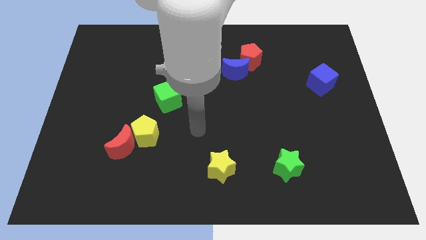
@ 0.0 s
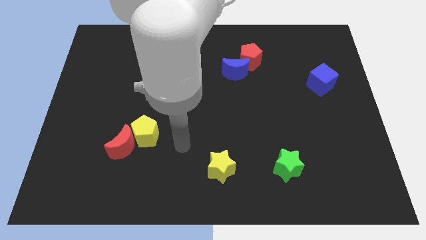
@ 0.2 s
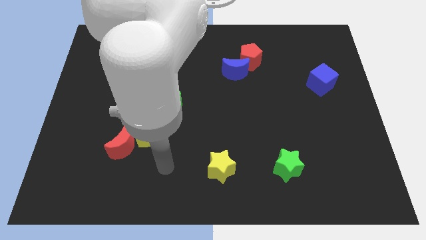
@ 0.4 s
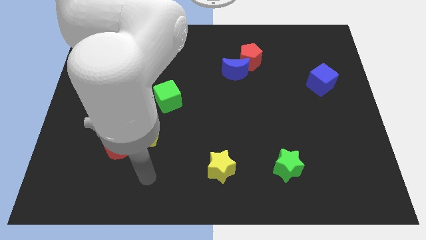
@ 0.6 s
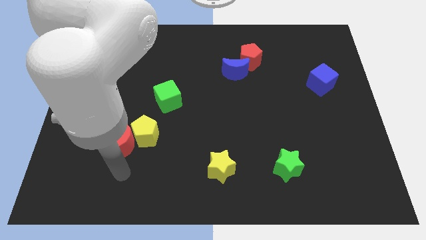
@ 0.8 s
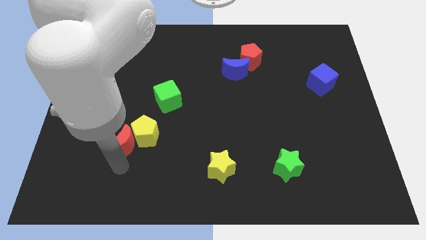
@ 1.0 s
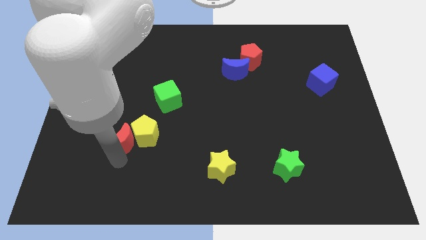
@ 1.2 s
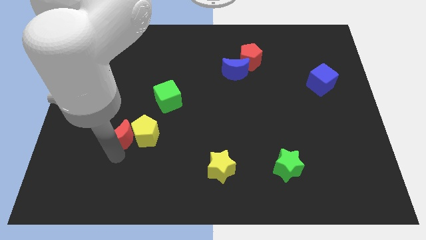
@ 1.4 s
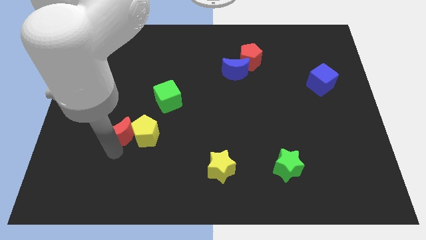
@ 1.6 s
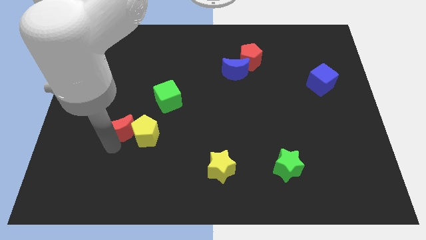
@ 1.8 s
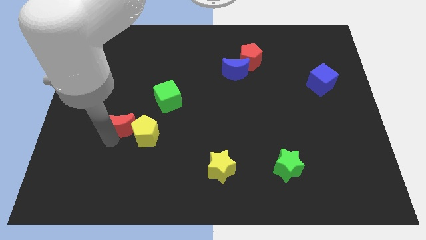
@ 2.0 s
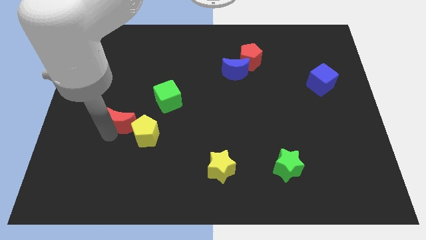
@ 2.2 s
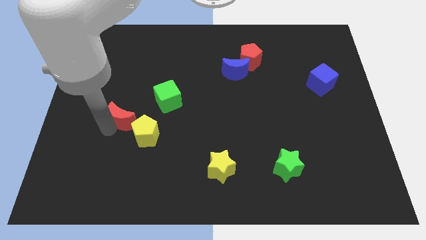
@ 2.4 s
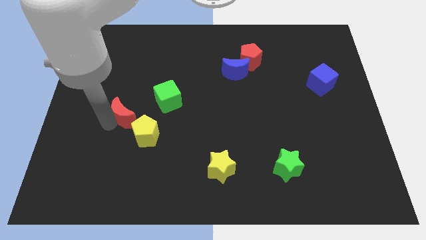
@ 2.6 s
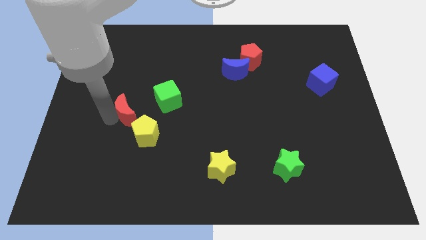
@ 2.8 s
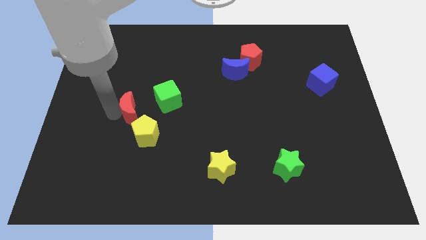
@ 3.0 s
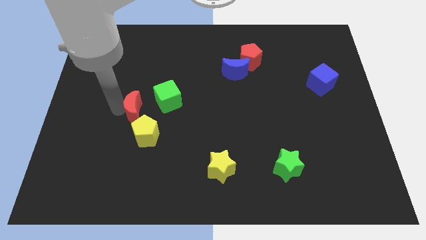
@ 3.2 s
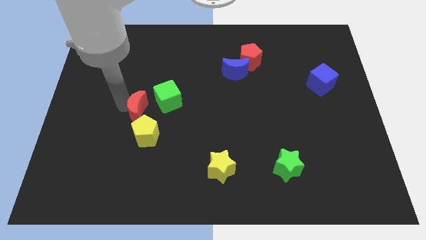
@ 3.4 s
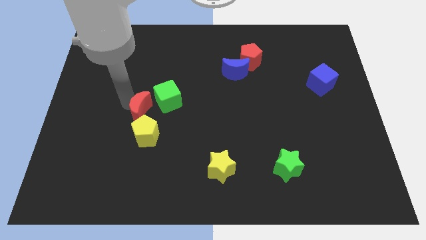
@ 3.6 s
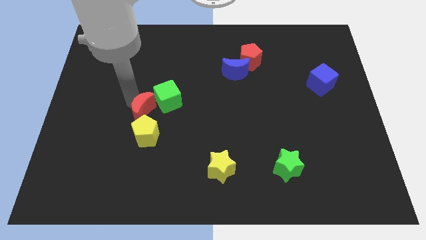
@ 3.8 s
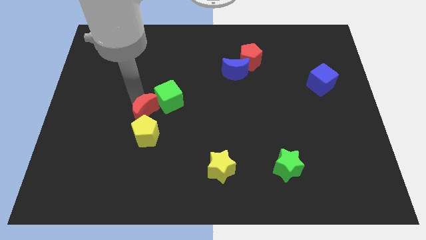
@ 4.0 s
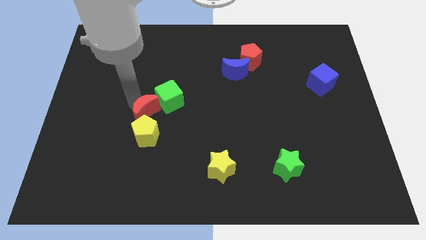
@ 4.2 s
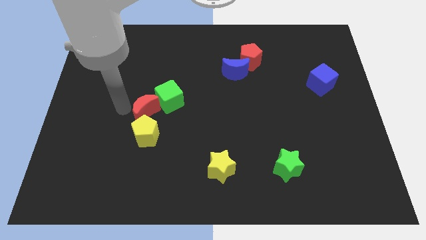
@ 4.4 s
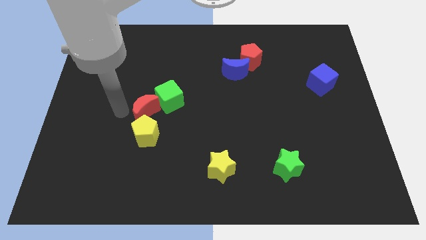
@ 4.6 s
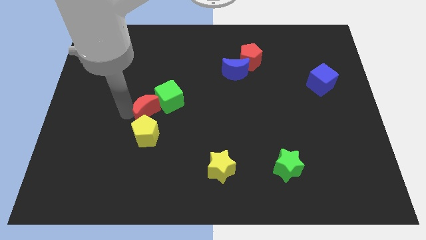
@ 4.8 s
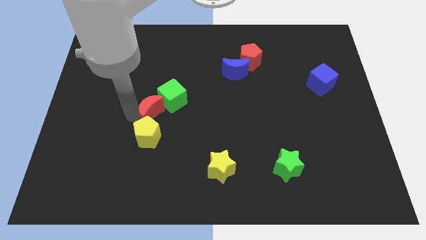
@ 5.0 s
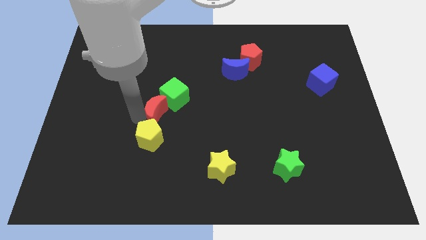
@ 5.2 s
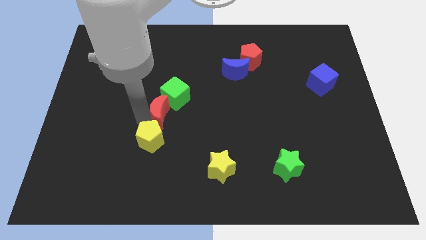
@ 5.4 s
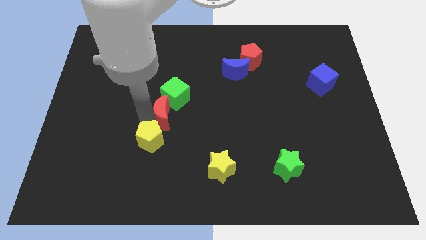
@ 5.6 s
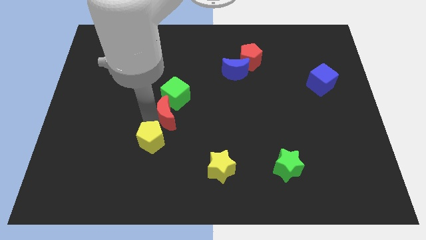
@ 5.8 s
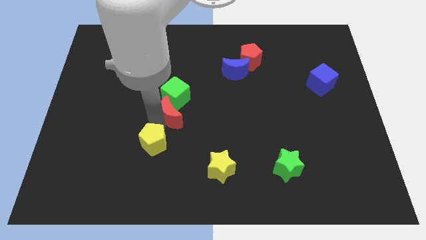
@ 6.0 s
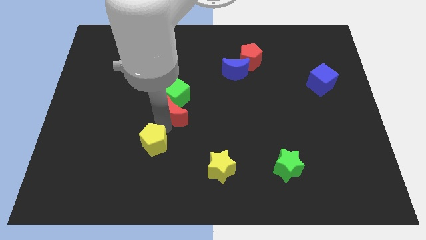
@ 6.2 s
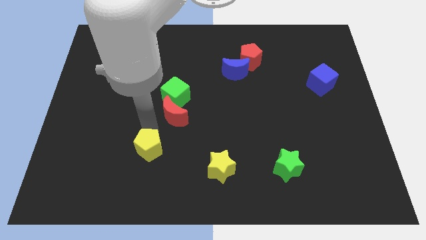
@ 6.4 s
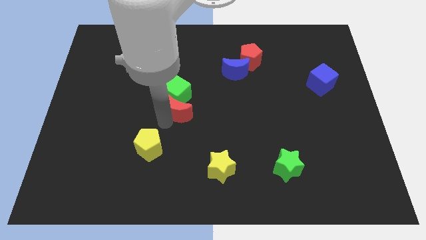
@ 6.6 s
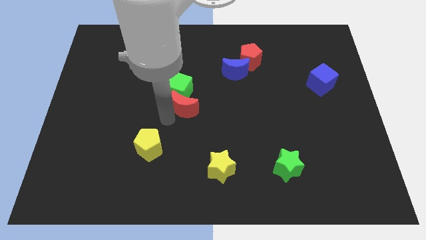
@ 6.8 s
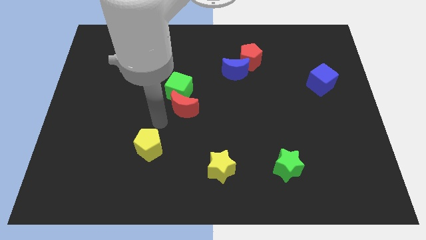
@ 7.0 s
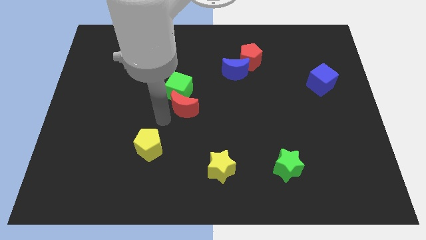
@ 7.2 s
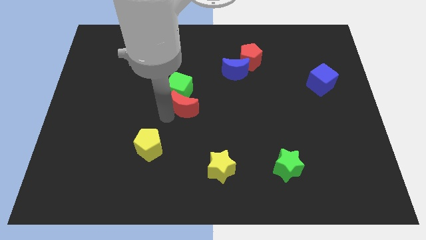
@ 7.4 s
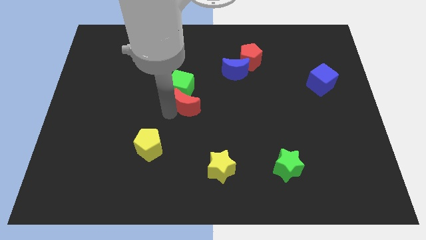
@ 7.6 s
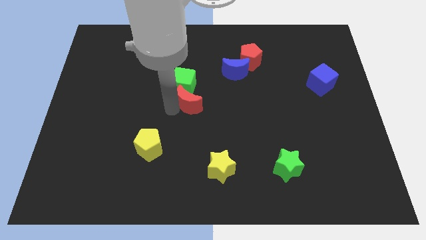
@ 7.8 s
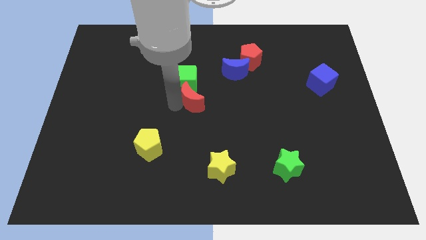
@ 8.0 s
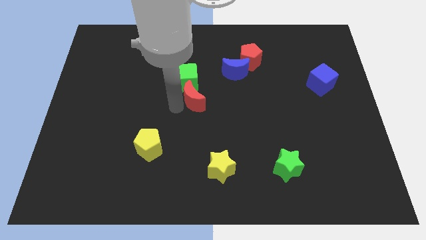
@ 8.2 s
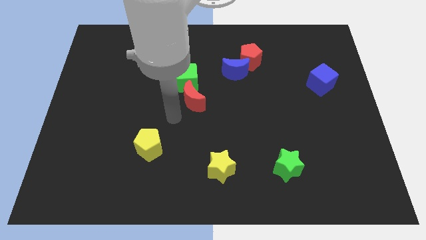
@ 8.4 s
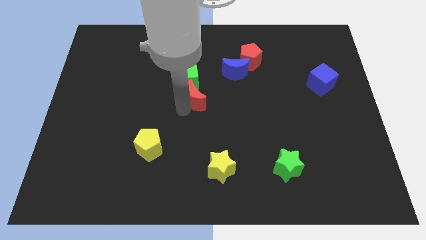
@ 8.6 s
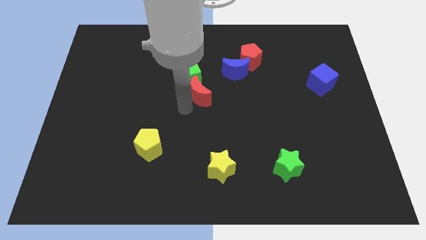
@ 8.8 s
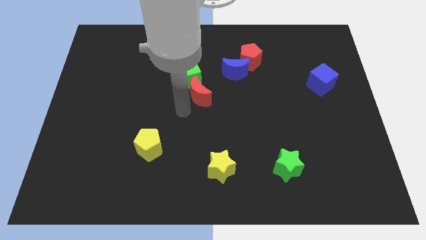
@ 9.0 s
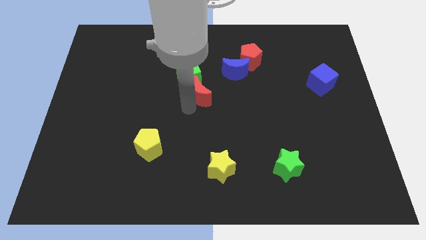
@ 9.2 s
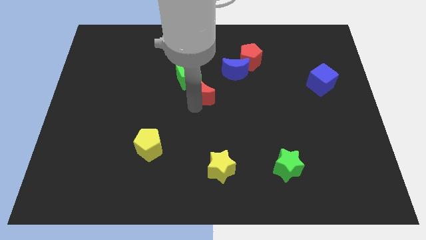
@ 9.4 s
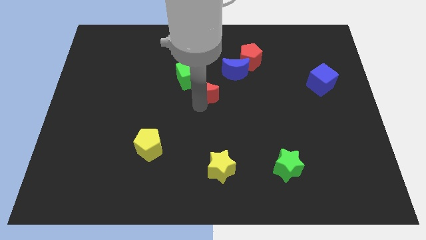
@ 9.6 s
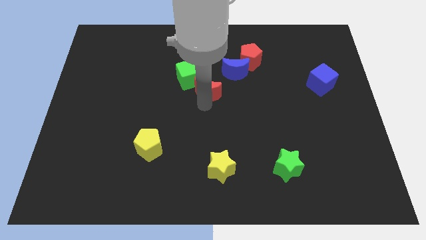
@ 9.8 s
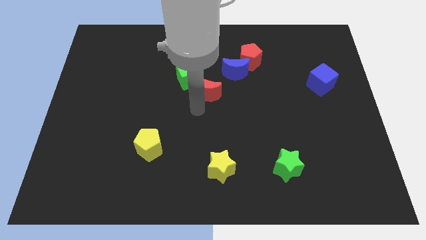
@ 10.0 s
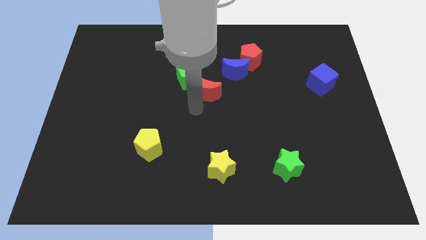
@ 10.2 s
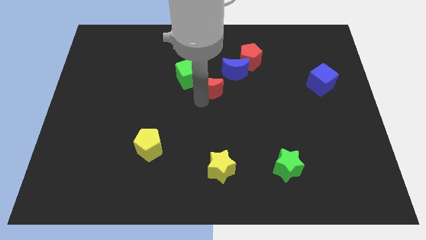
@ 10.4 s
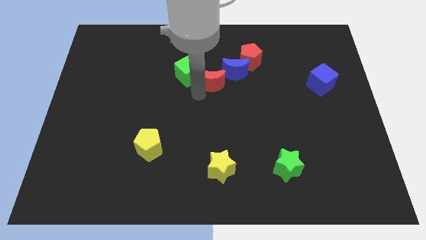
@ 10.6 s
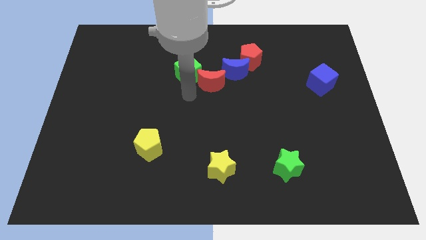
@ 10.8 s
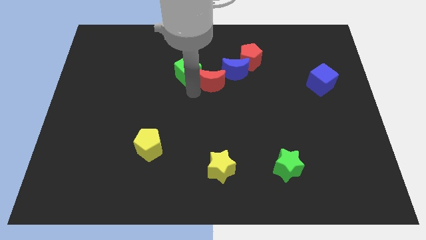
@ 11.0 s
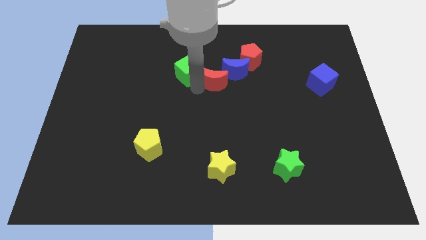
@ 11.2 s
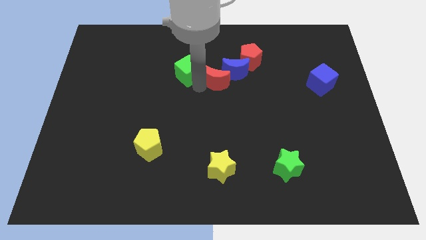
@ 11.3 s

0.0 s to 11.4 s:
put the red moon next to the blue moon

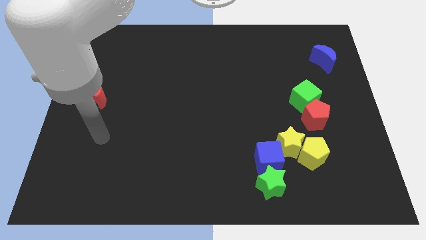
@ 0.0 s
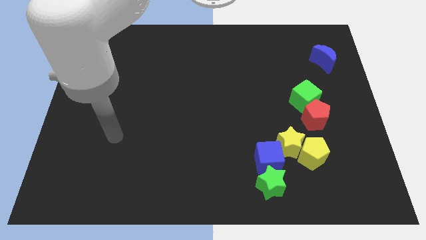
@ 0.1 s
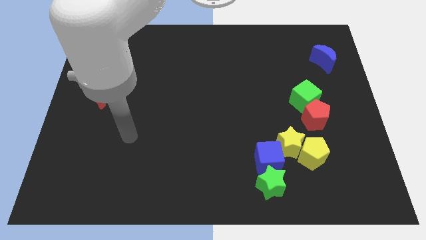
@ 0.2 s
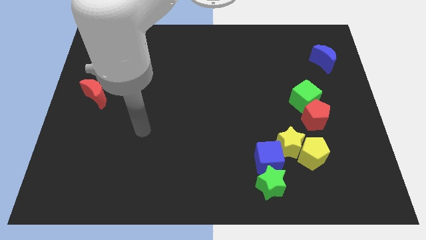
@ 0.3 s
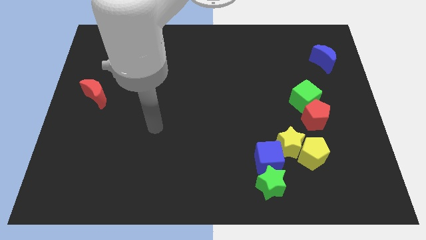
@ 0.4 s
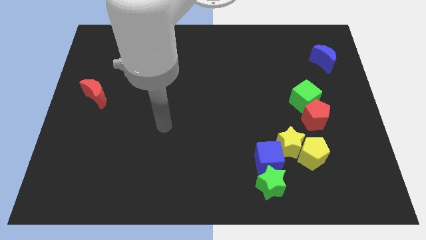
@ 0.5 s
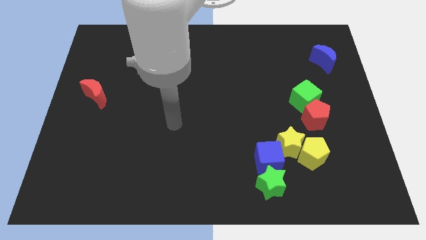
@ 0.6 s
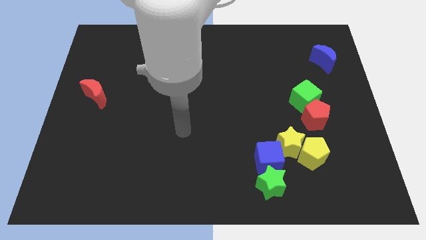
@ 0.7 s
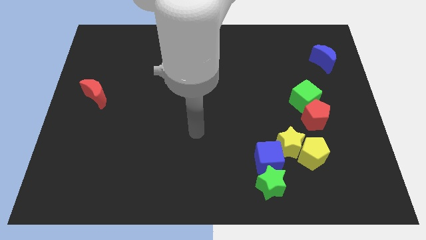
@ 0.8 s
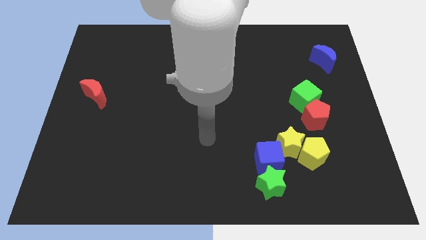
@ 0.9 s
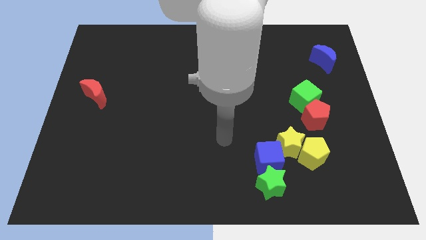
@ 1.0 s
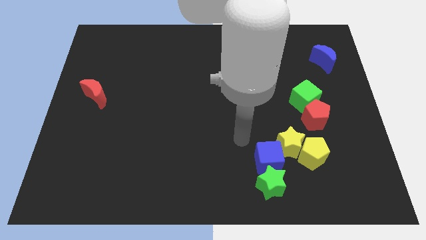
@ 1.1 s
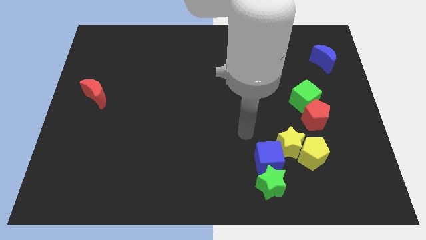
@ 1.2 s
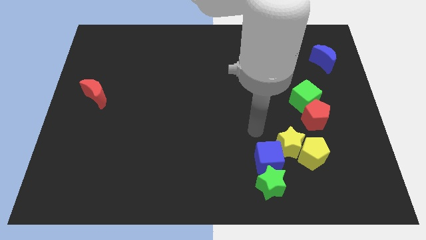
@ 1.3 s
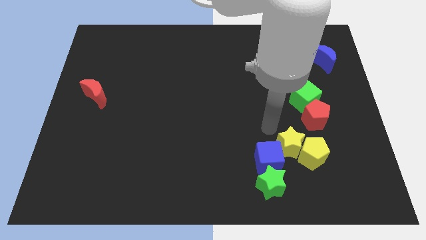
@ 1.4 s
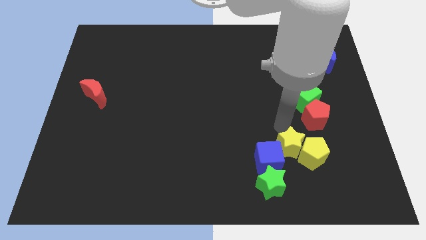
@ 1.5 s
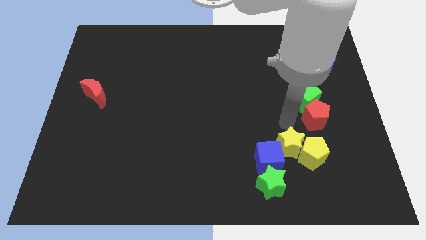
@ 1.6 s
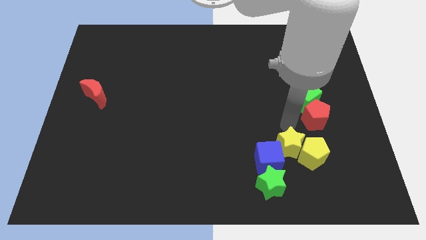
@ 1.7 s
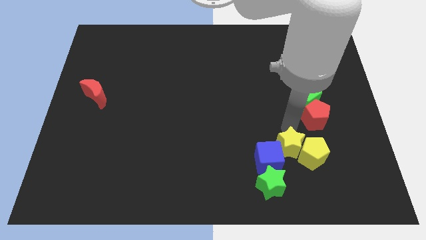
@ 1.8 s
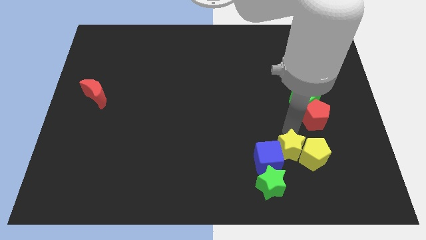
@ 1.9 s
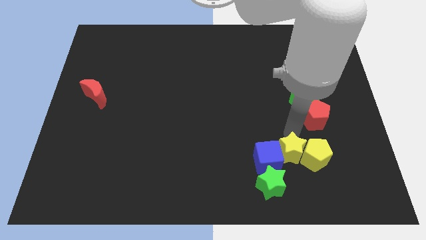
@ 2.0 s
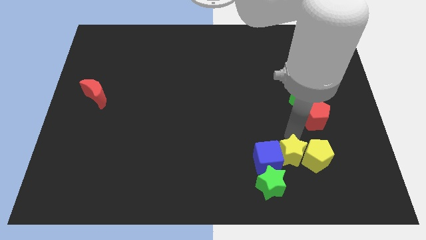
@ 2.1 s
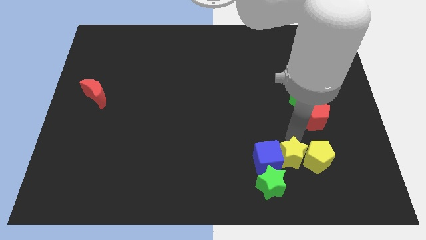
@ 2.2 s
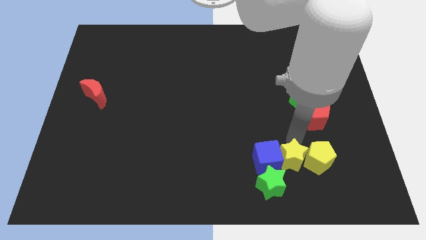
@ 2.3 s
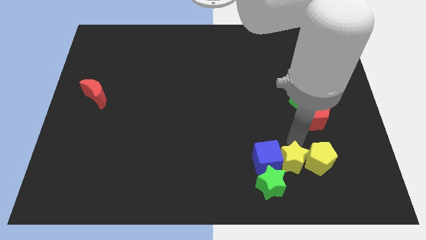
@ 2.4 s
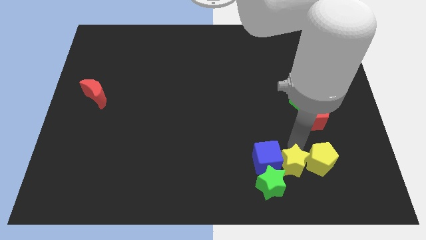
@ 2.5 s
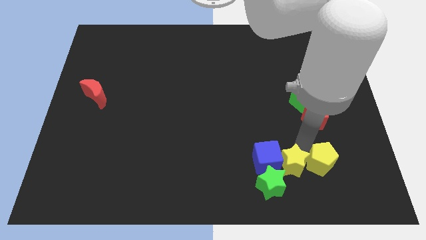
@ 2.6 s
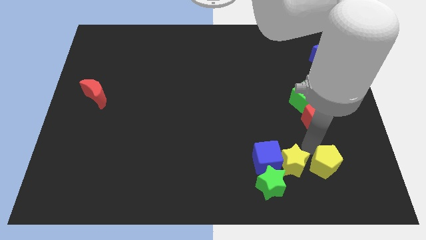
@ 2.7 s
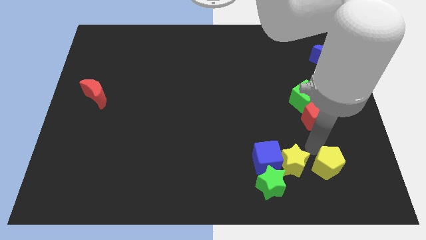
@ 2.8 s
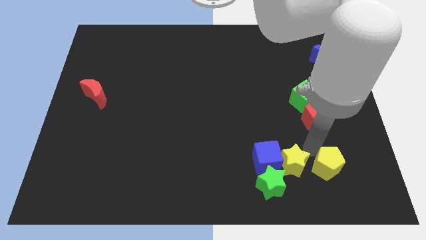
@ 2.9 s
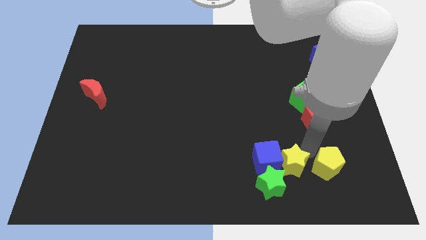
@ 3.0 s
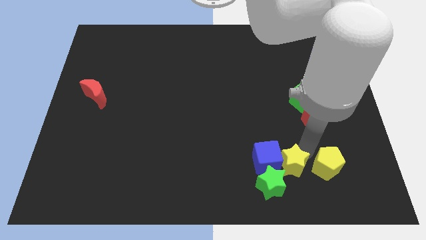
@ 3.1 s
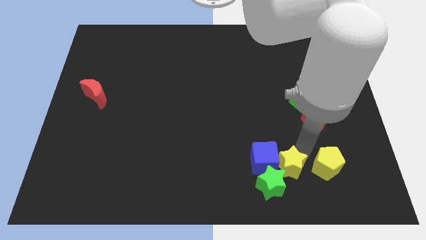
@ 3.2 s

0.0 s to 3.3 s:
put the yellow star close to the green star
